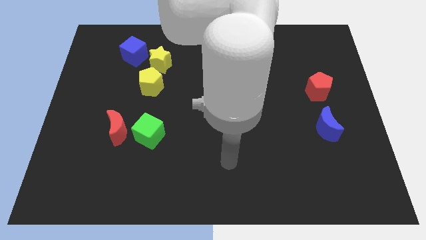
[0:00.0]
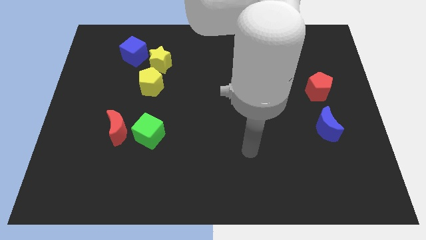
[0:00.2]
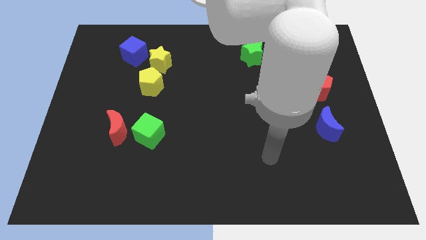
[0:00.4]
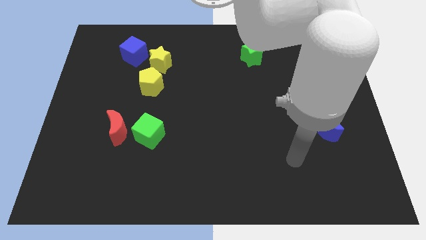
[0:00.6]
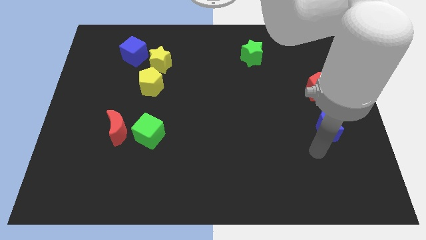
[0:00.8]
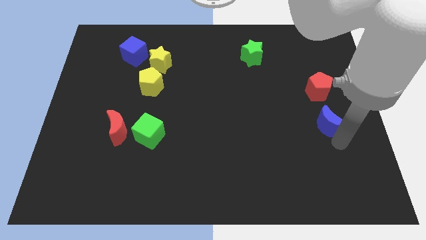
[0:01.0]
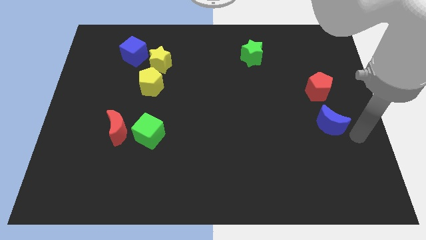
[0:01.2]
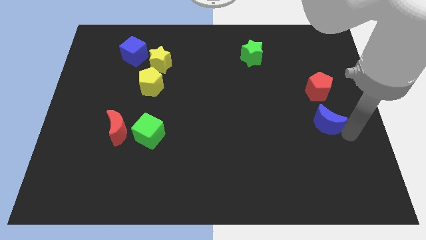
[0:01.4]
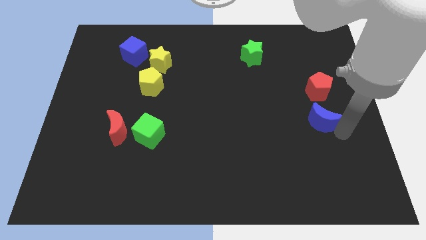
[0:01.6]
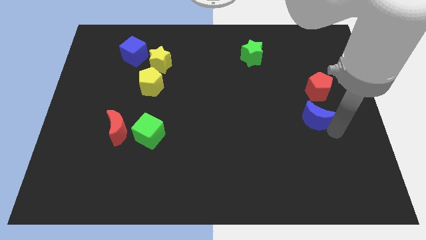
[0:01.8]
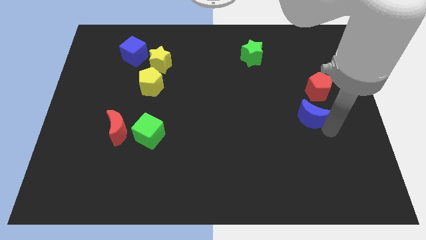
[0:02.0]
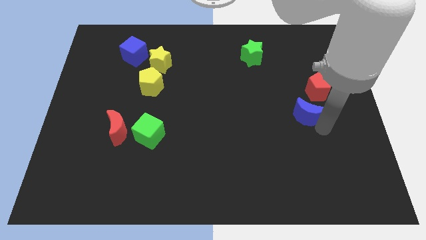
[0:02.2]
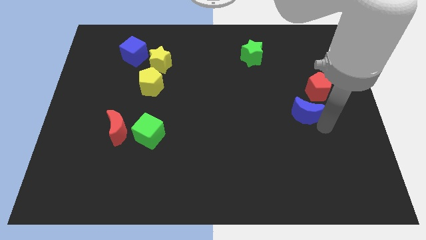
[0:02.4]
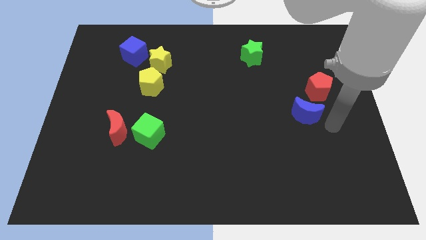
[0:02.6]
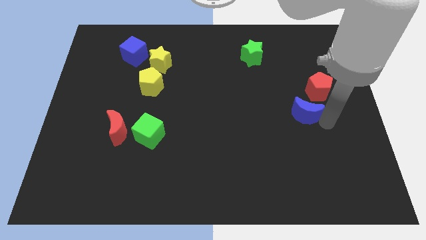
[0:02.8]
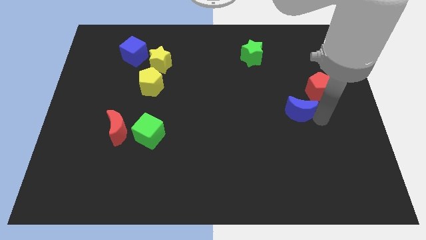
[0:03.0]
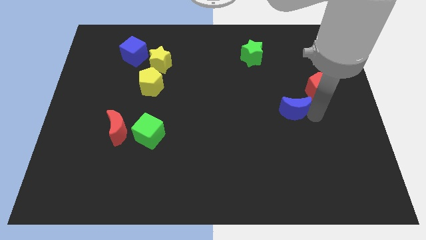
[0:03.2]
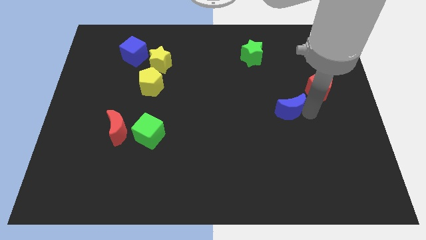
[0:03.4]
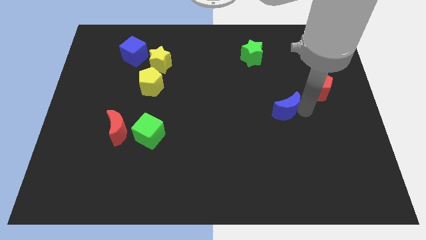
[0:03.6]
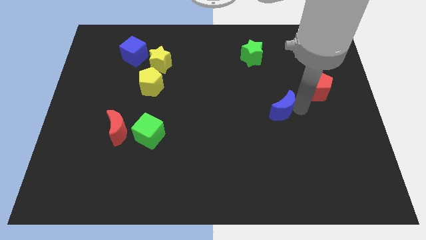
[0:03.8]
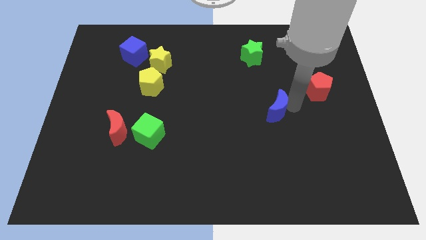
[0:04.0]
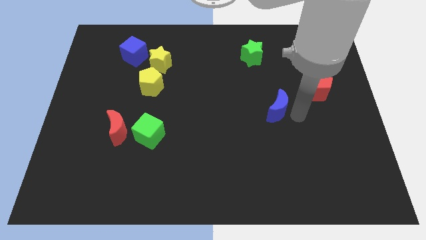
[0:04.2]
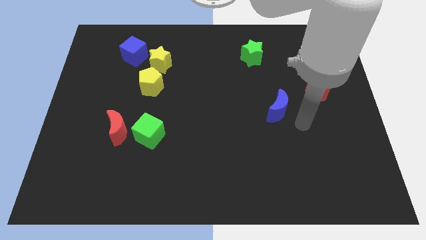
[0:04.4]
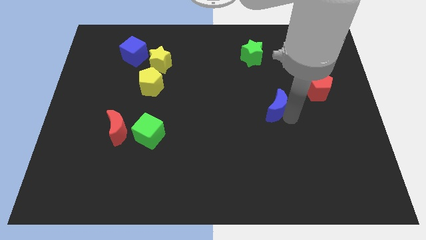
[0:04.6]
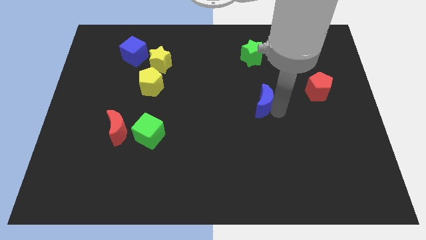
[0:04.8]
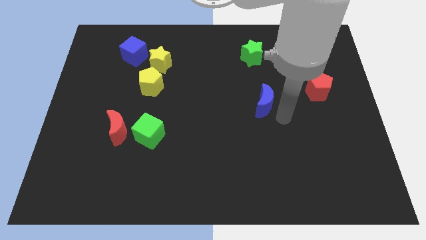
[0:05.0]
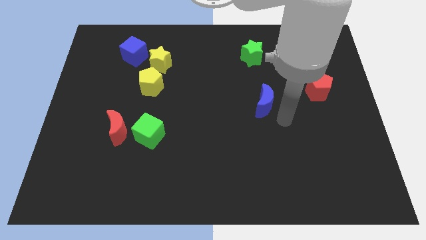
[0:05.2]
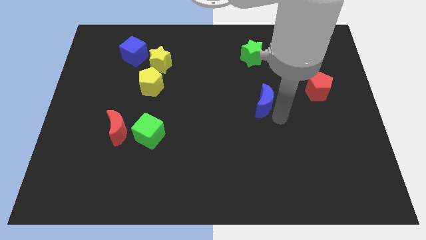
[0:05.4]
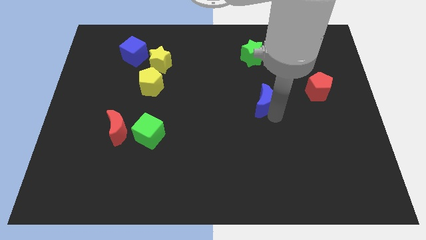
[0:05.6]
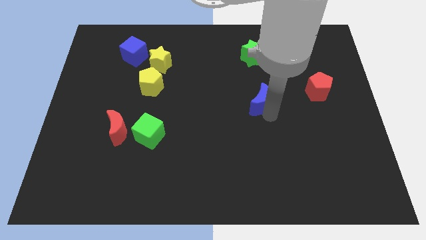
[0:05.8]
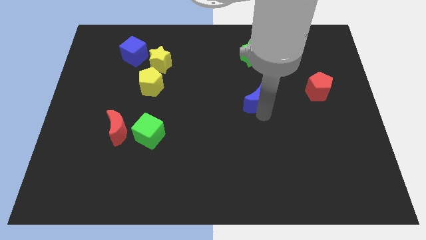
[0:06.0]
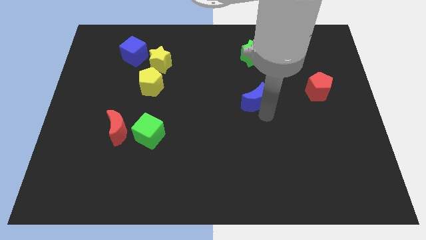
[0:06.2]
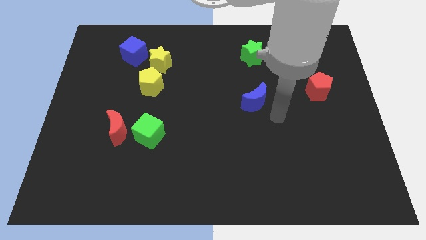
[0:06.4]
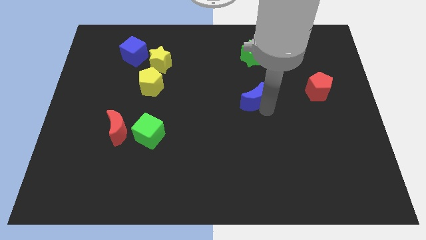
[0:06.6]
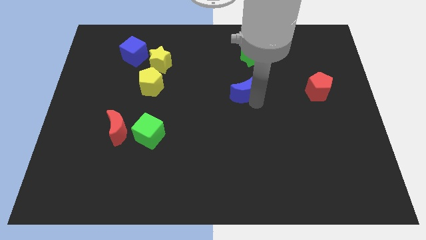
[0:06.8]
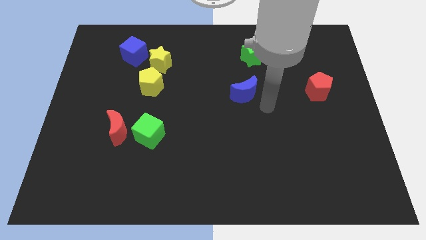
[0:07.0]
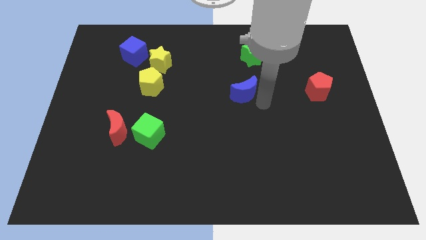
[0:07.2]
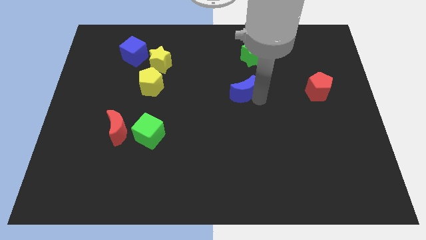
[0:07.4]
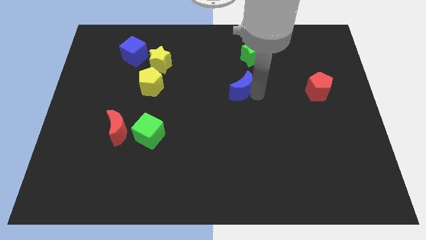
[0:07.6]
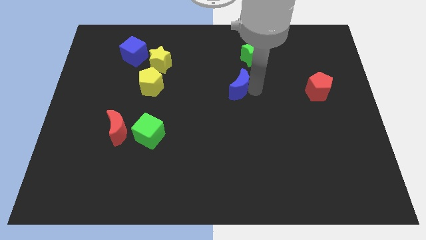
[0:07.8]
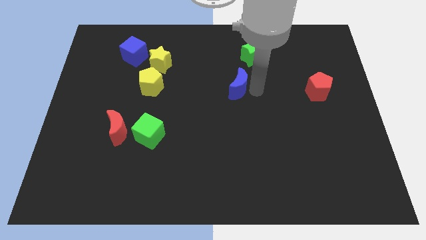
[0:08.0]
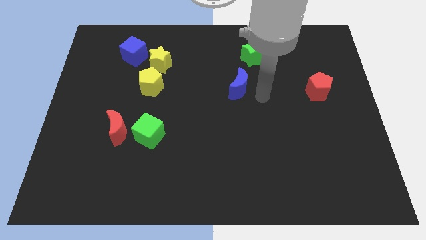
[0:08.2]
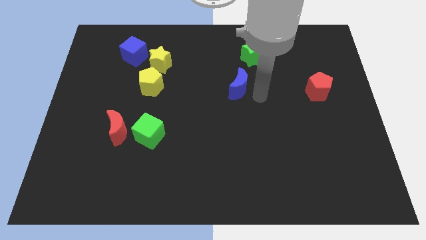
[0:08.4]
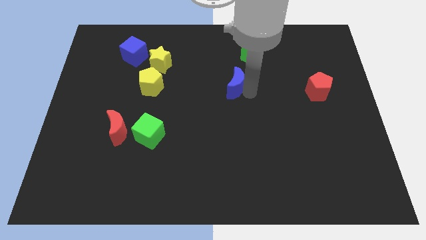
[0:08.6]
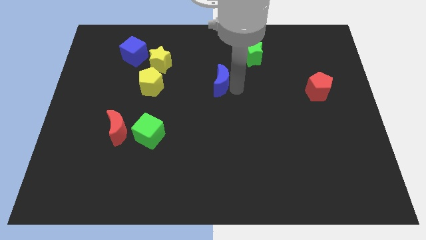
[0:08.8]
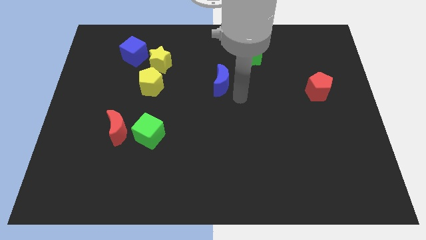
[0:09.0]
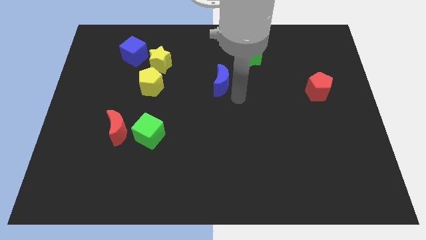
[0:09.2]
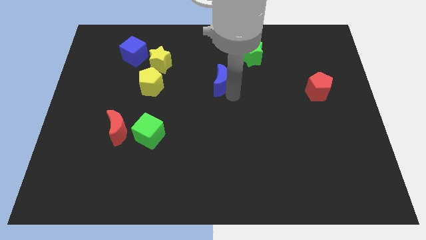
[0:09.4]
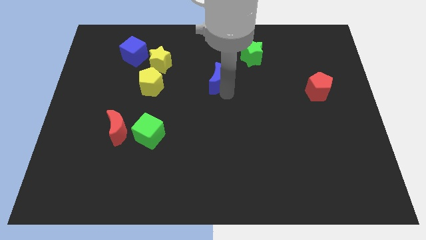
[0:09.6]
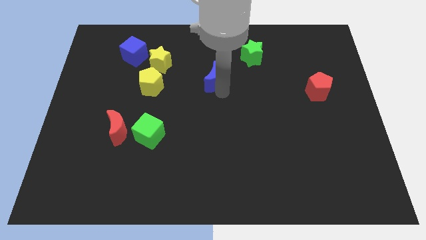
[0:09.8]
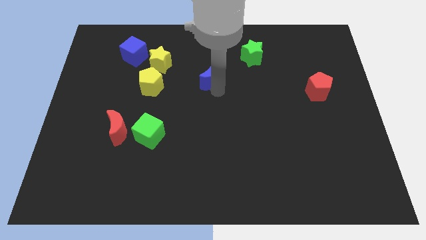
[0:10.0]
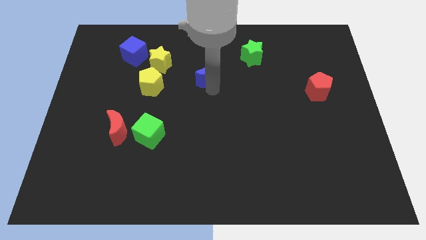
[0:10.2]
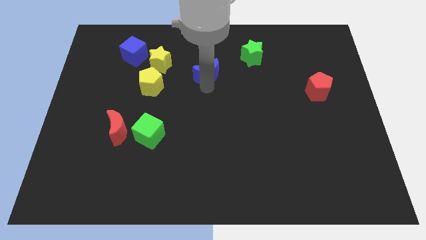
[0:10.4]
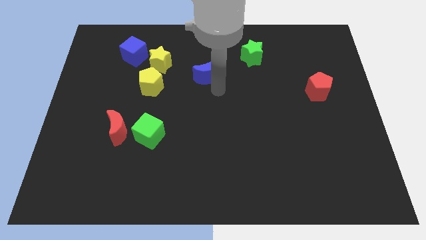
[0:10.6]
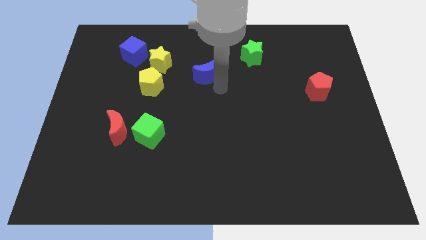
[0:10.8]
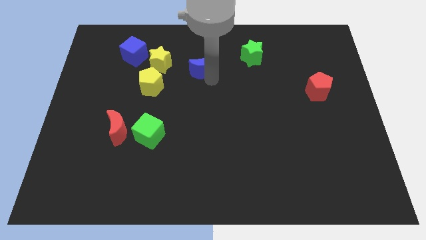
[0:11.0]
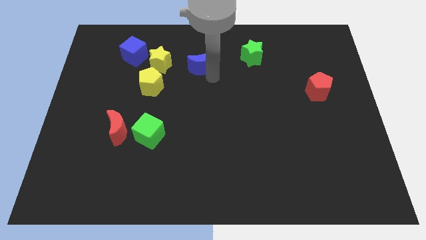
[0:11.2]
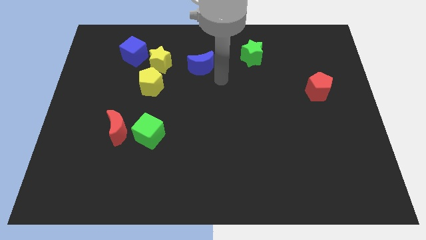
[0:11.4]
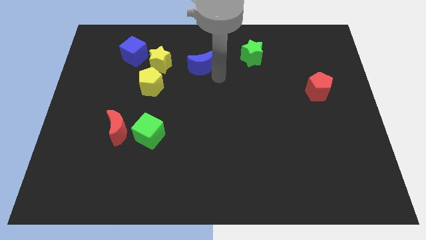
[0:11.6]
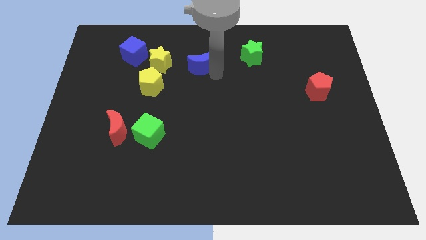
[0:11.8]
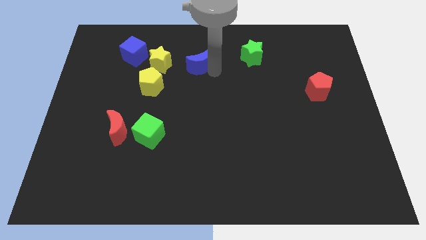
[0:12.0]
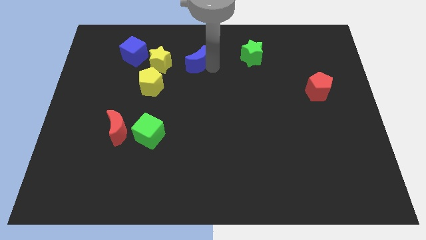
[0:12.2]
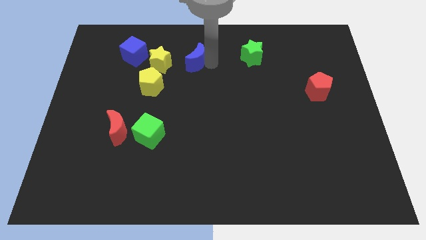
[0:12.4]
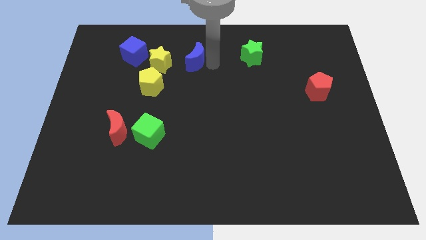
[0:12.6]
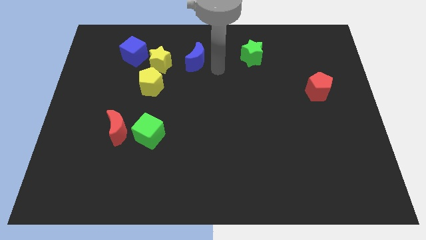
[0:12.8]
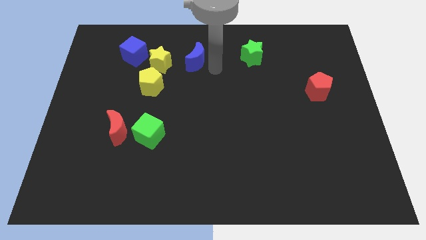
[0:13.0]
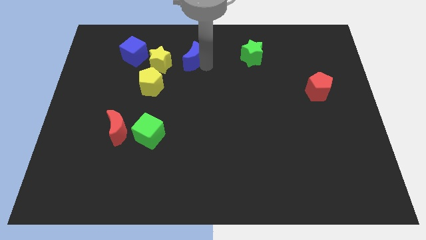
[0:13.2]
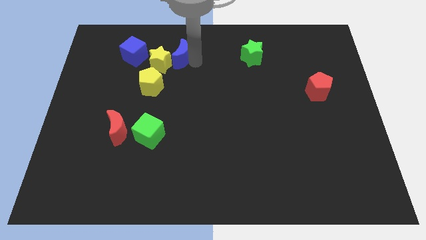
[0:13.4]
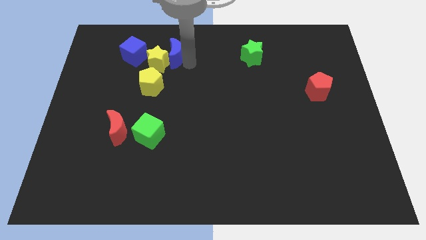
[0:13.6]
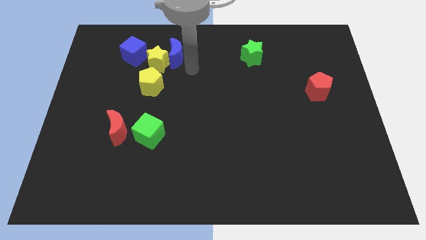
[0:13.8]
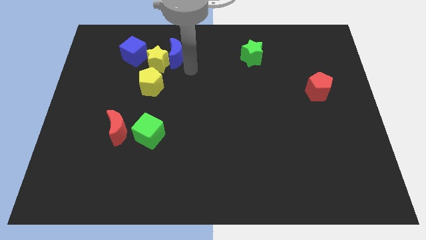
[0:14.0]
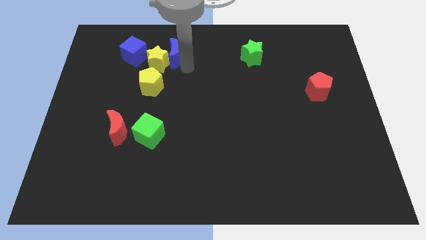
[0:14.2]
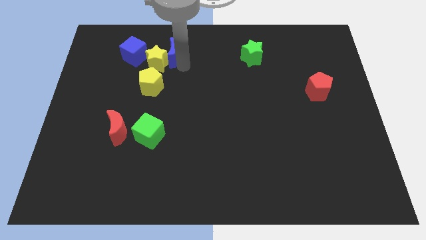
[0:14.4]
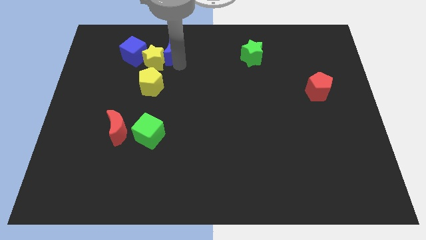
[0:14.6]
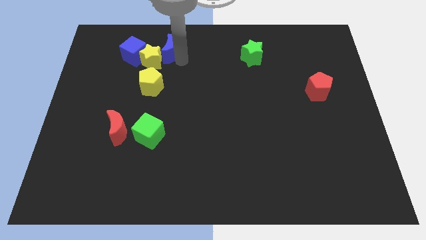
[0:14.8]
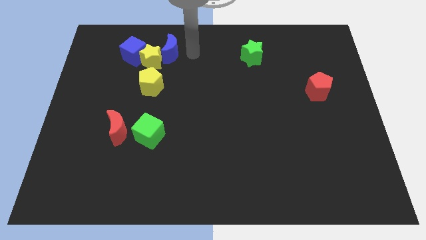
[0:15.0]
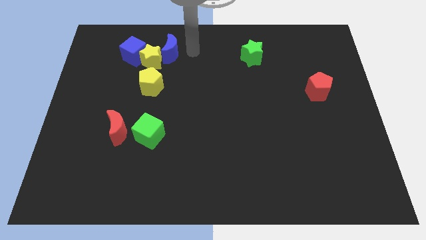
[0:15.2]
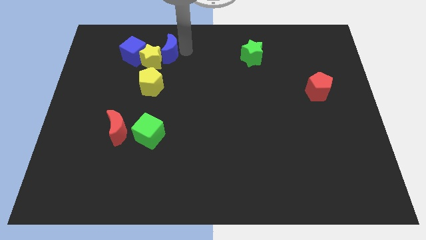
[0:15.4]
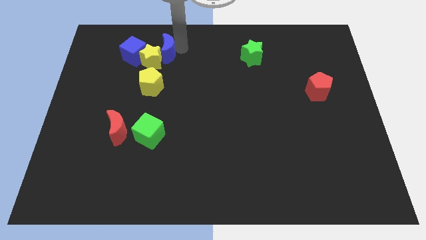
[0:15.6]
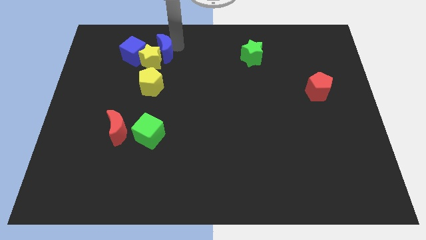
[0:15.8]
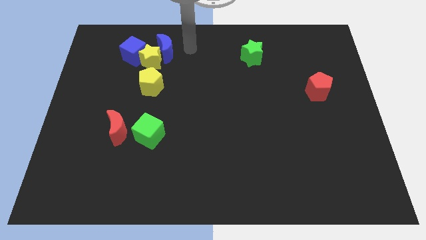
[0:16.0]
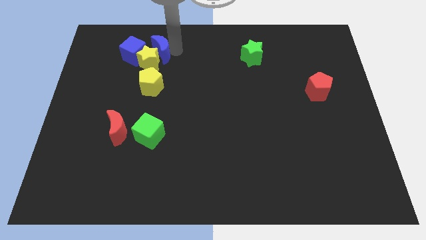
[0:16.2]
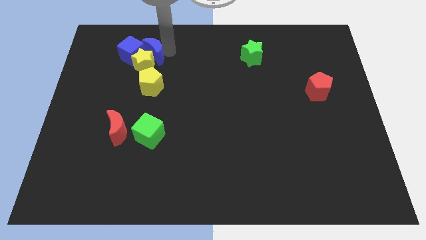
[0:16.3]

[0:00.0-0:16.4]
slide the blue moon close to the blue cube
